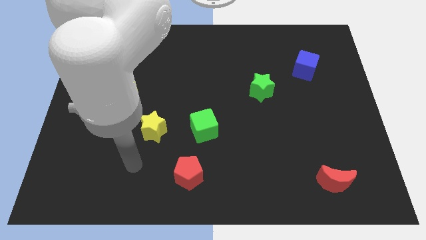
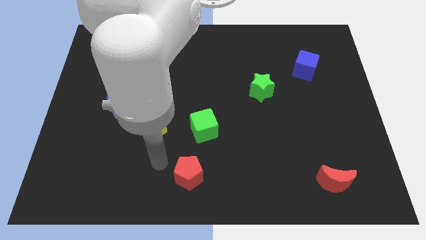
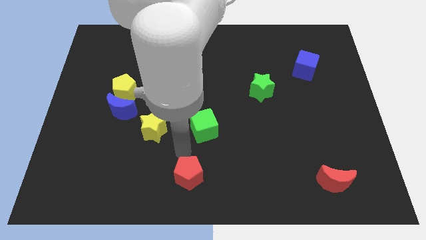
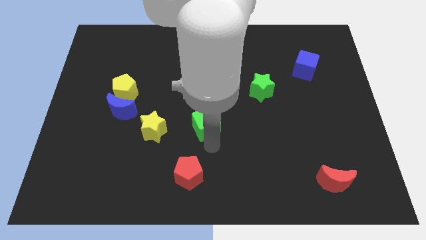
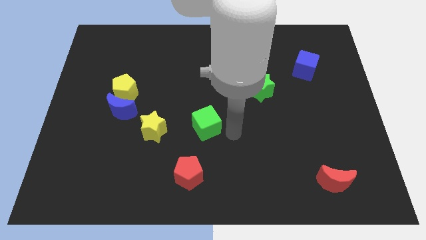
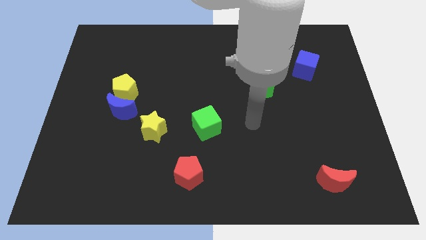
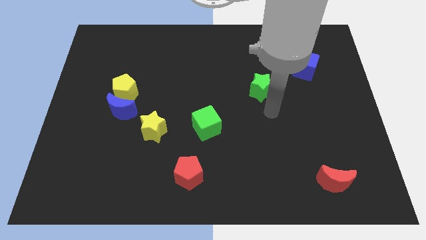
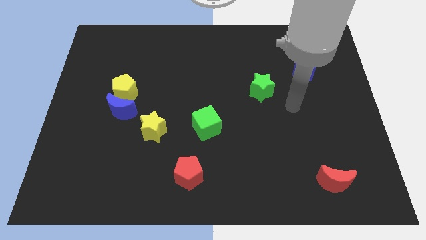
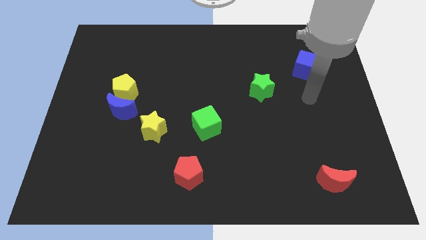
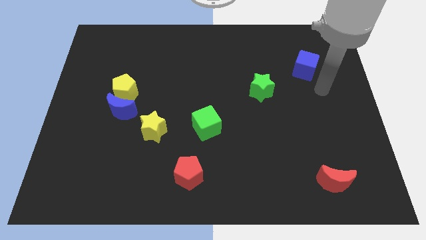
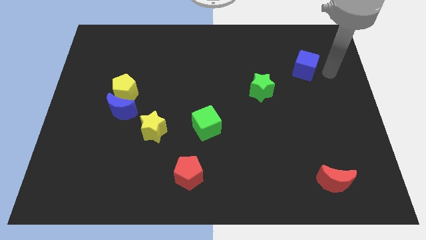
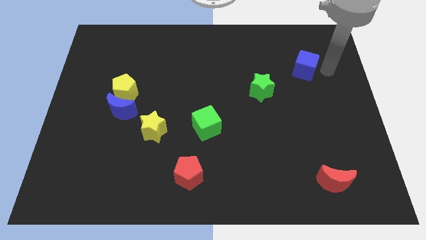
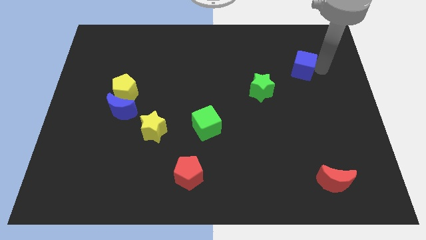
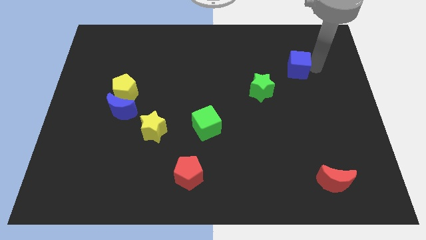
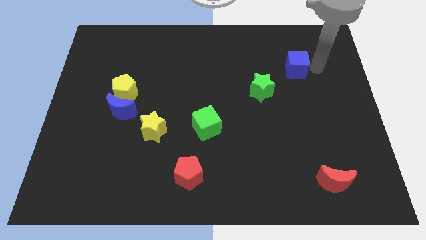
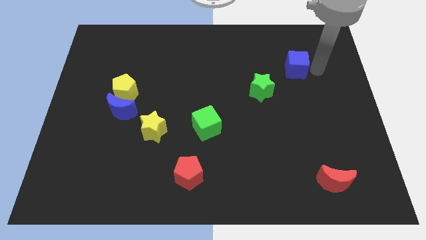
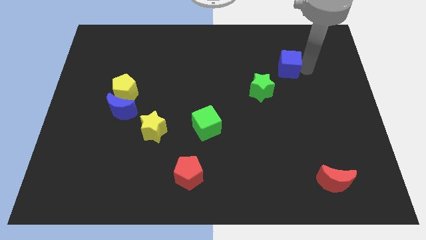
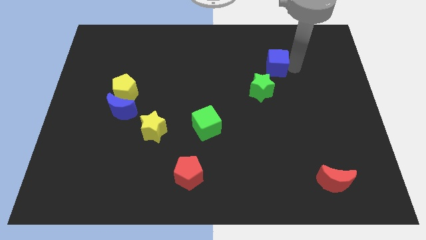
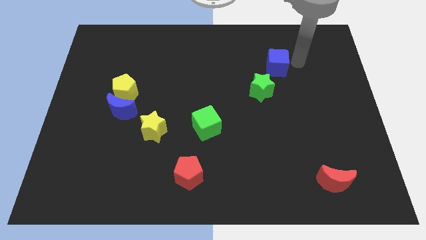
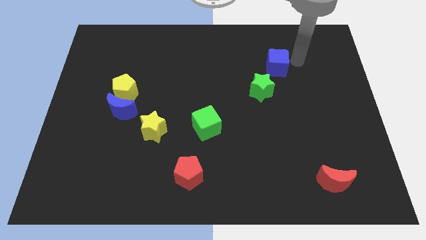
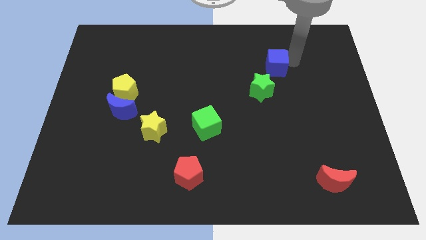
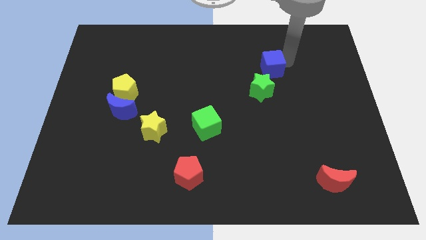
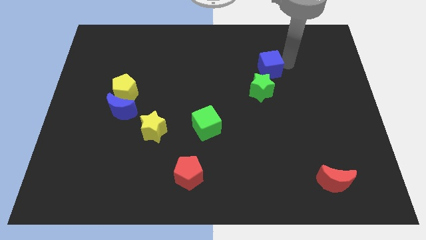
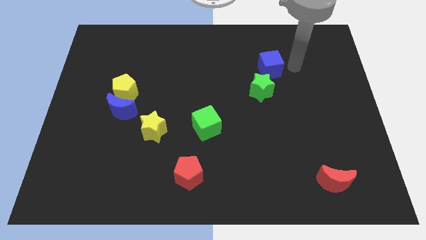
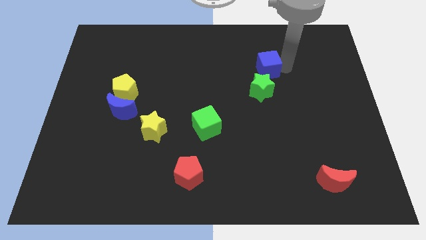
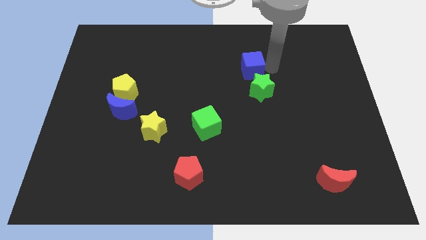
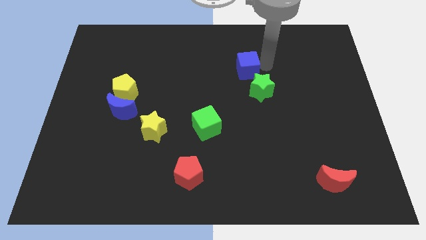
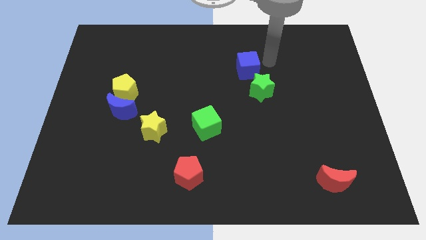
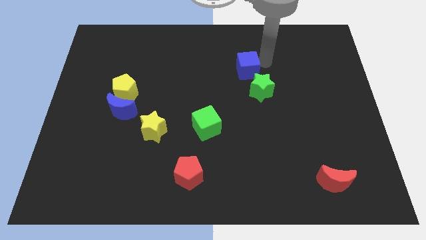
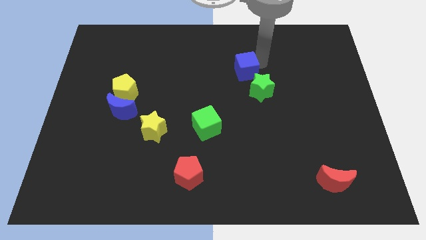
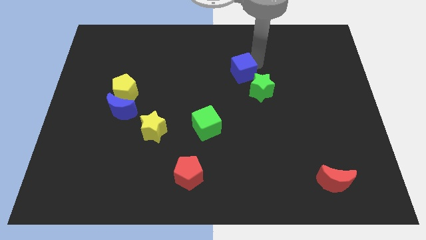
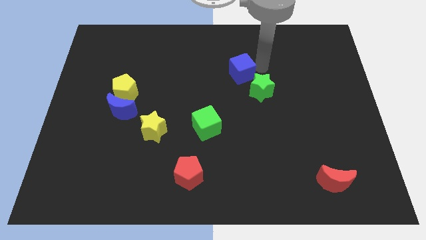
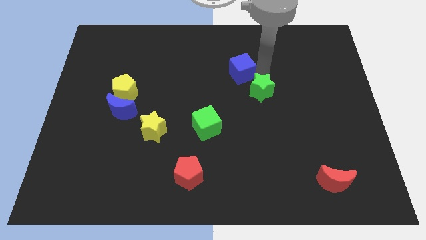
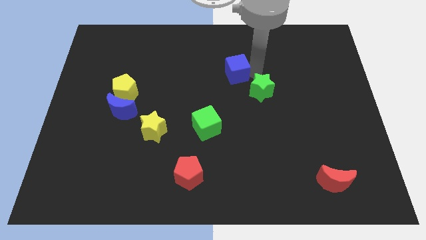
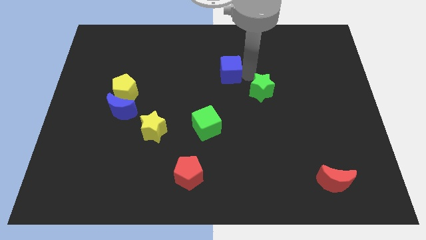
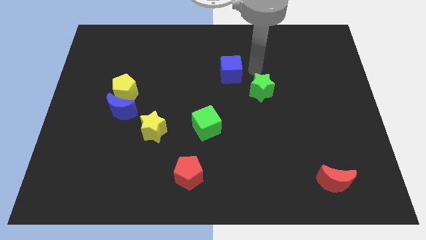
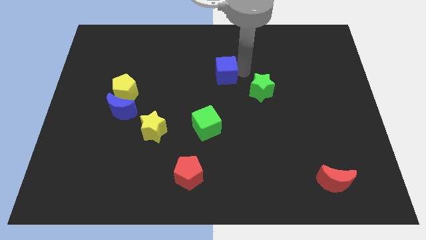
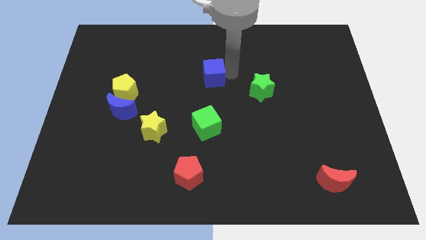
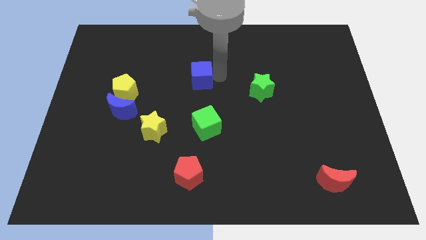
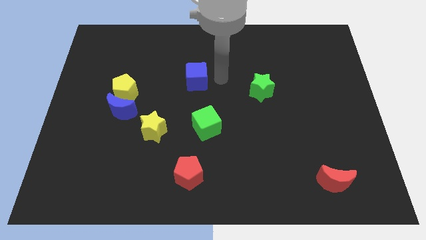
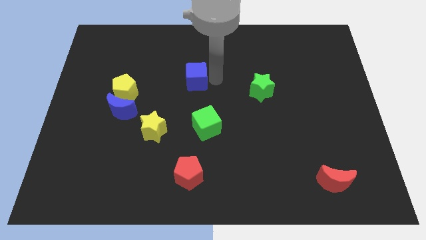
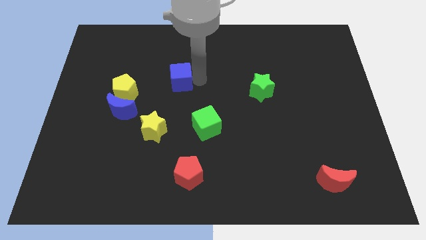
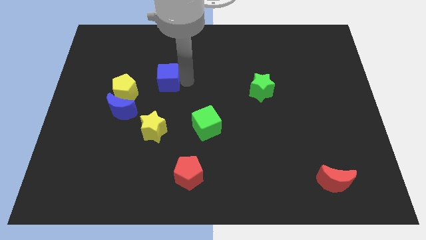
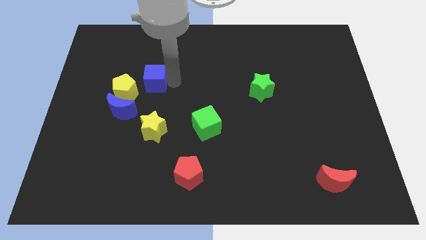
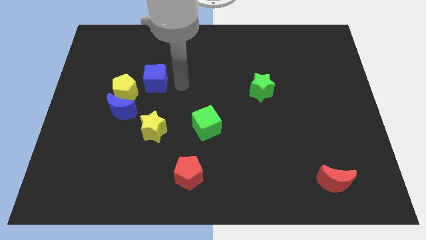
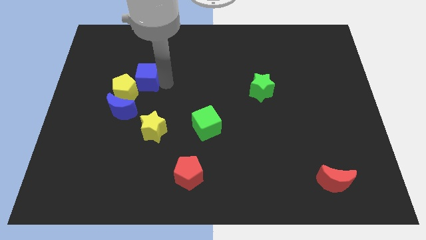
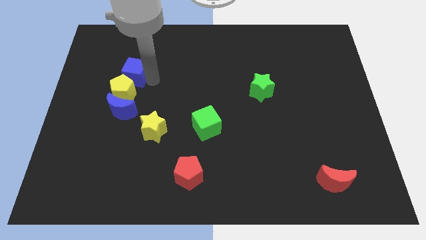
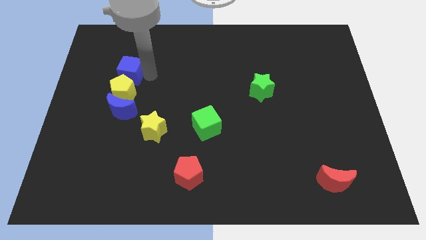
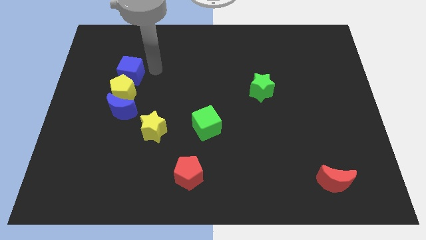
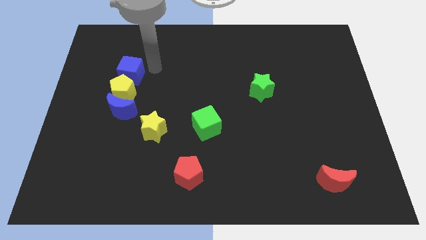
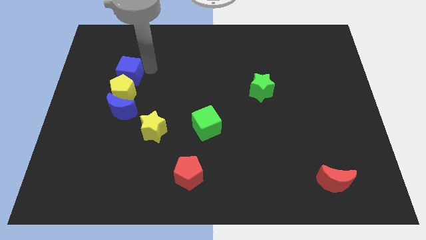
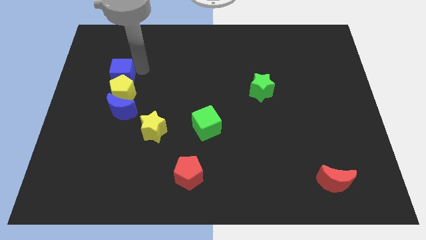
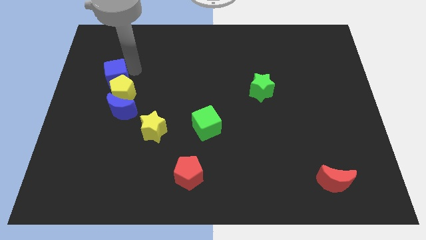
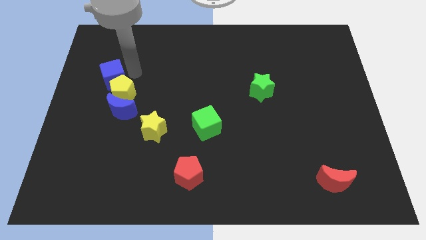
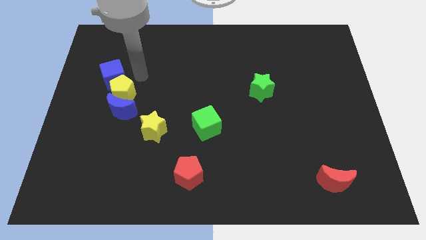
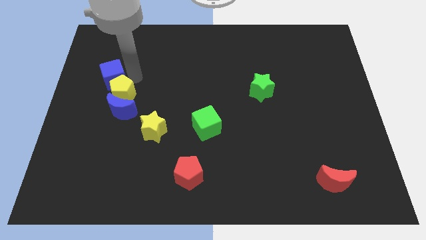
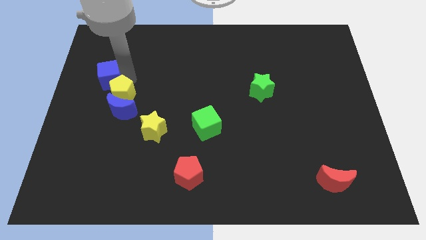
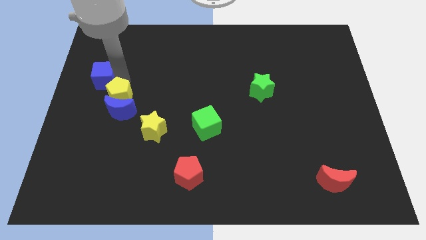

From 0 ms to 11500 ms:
slide the blue cube to the center left

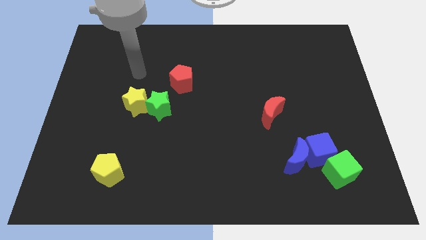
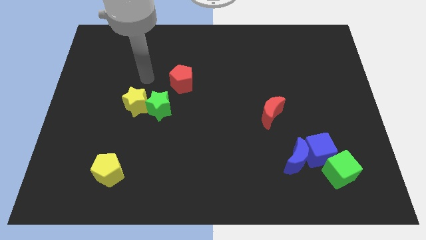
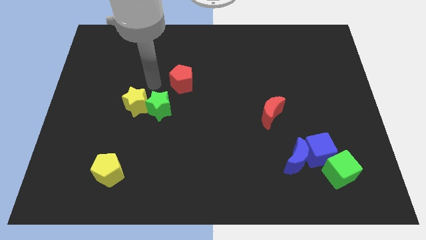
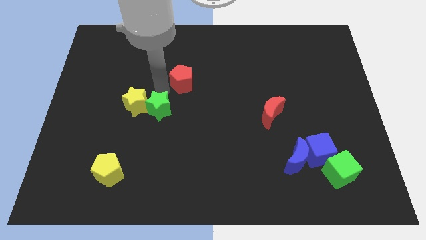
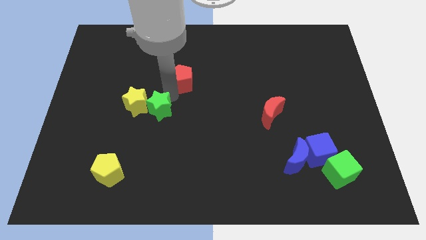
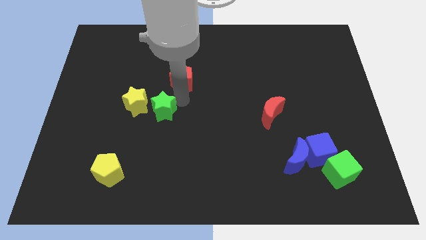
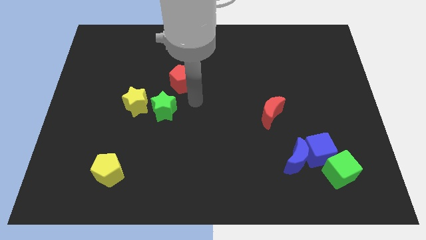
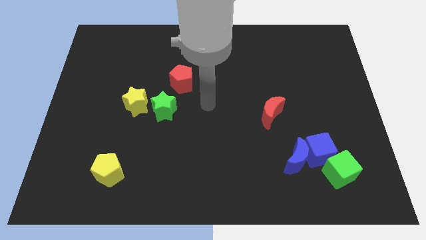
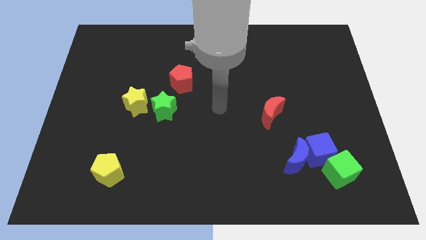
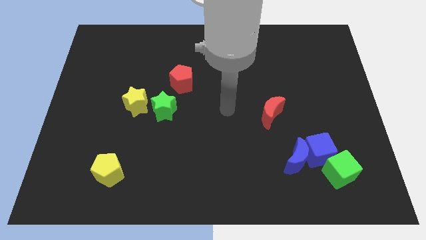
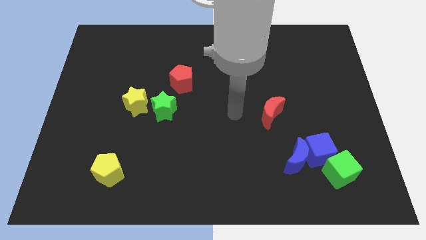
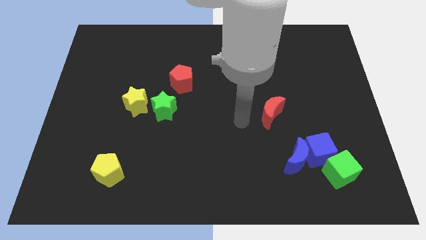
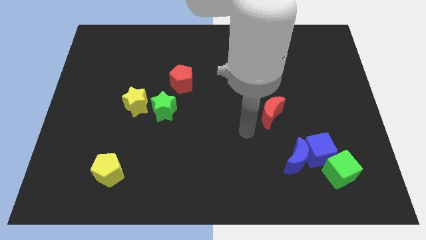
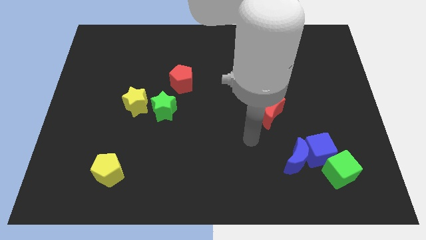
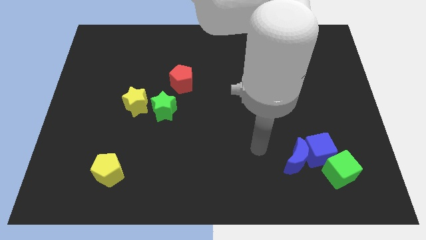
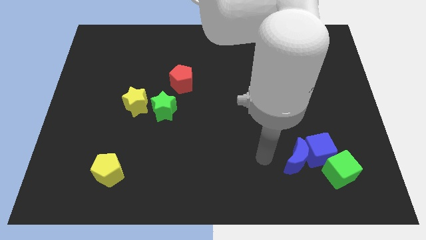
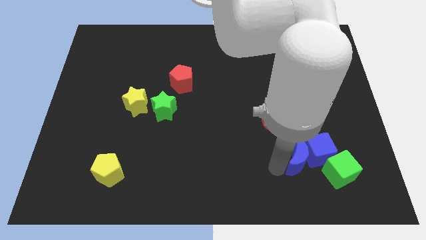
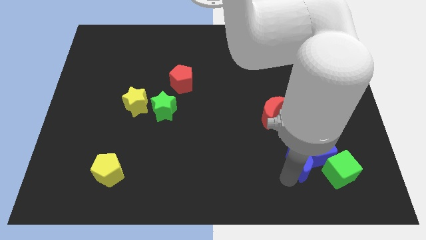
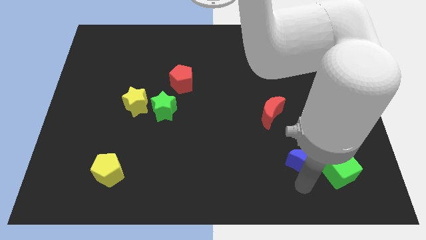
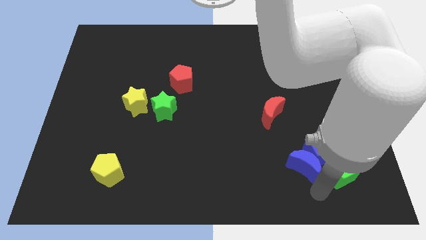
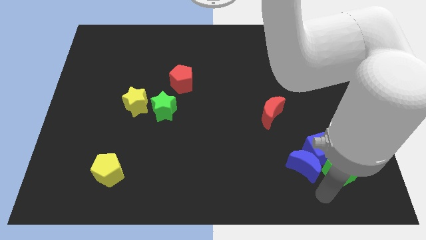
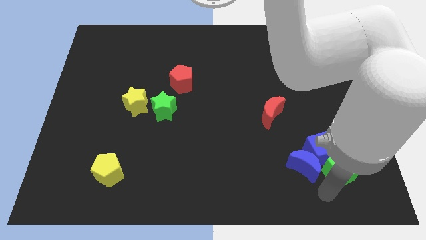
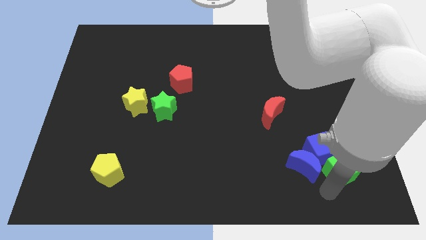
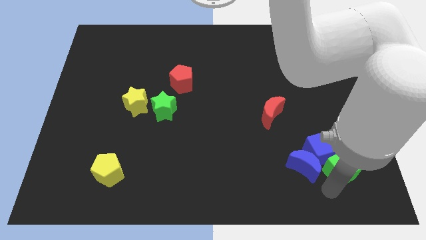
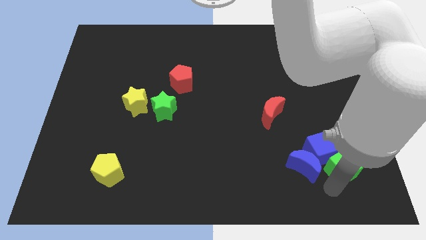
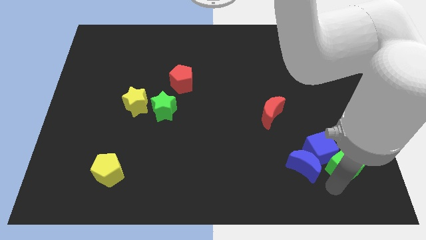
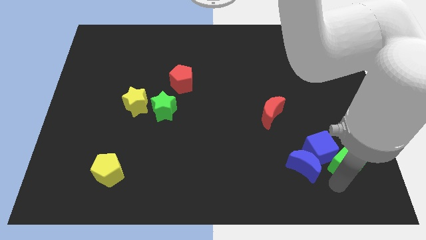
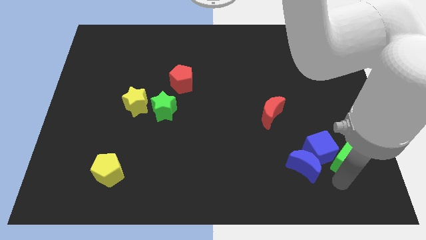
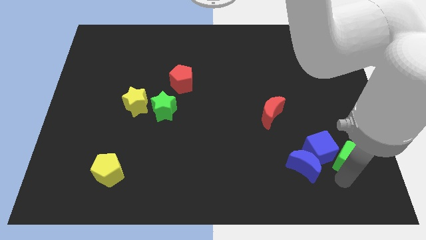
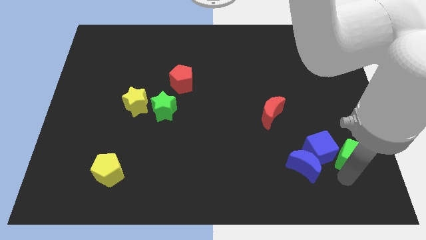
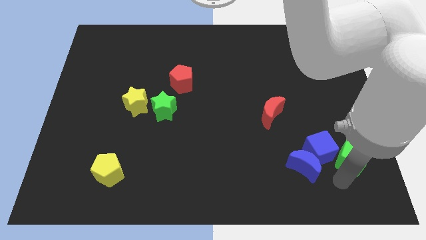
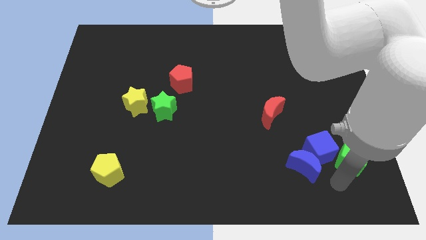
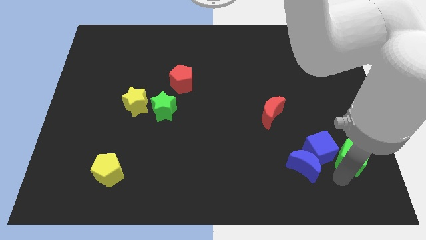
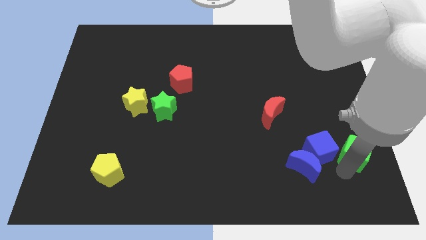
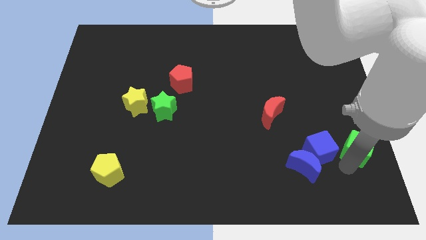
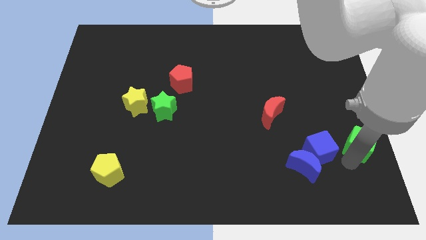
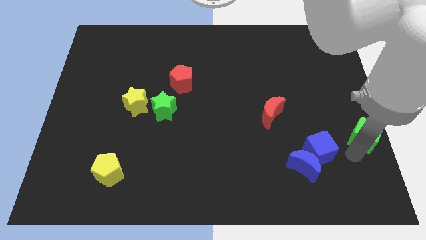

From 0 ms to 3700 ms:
move the green cube to the center right
